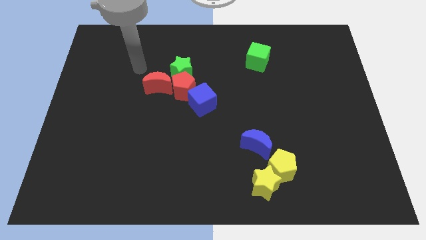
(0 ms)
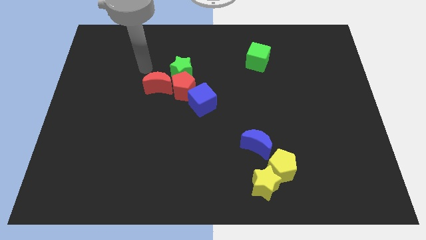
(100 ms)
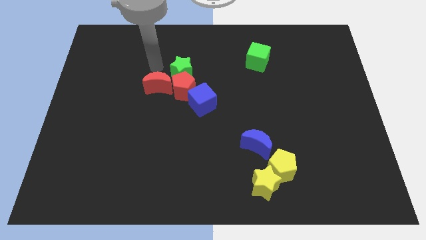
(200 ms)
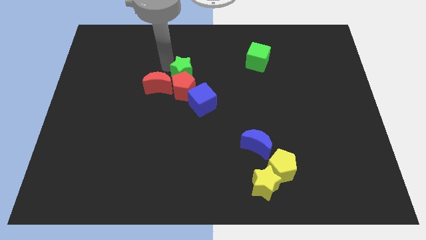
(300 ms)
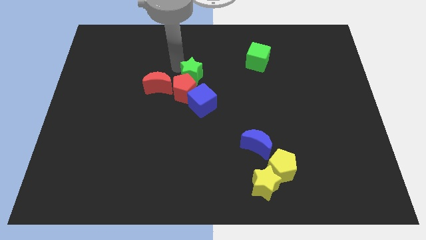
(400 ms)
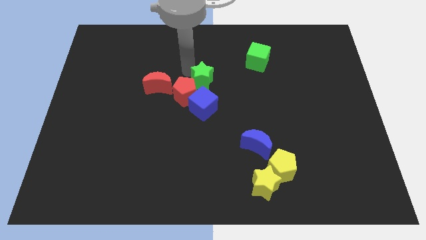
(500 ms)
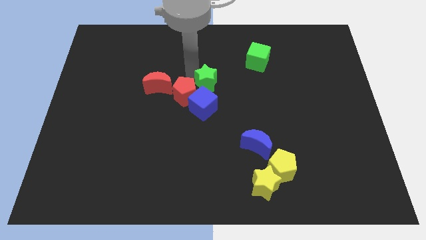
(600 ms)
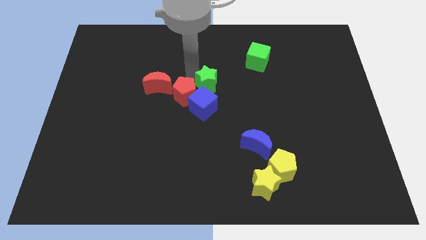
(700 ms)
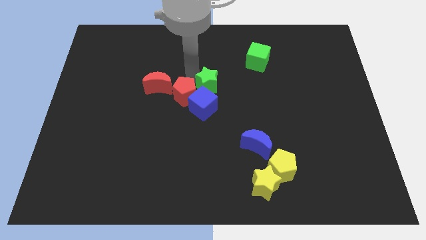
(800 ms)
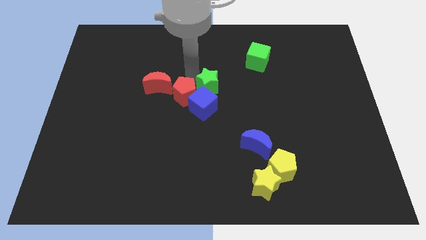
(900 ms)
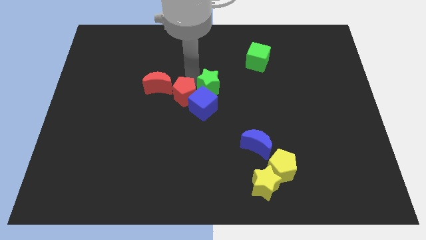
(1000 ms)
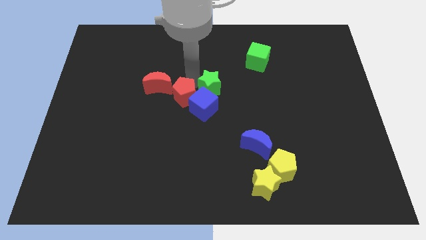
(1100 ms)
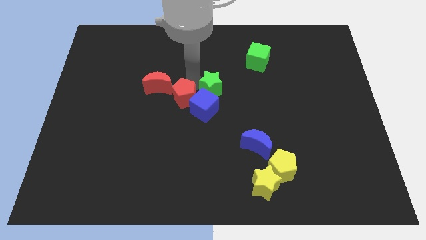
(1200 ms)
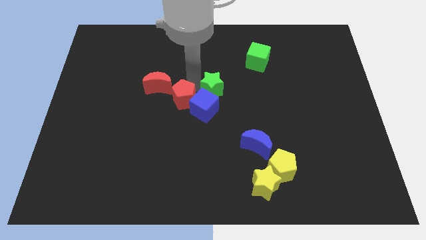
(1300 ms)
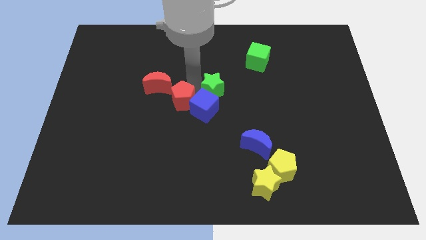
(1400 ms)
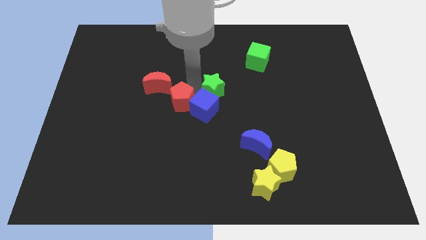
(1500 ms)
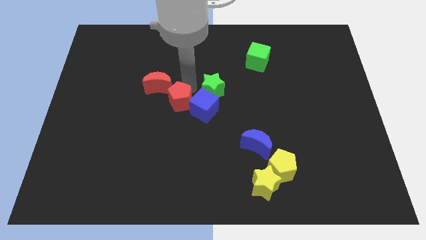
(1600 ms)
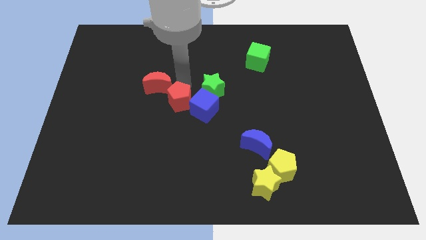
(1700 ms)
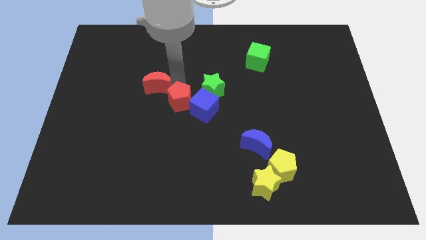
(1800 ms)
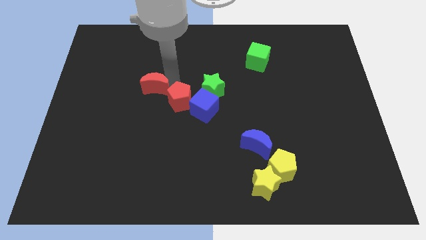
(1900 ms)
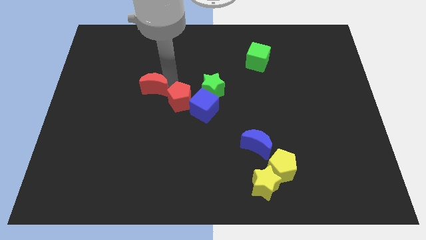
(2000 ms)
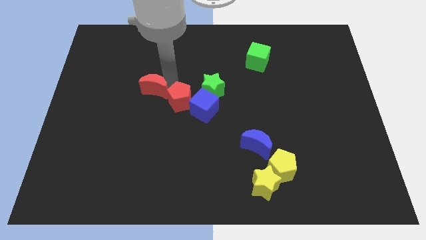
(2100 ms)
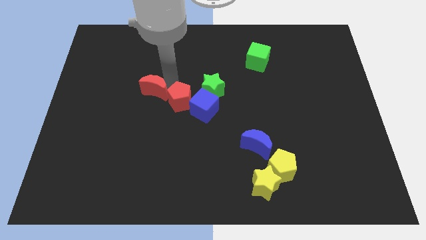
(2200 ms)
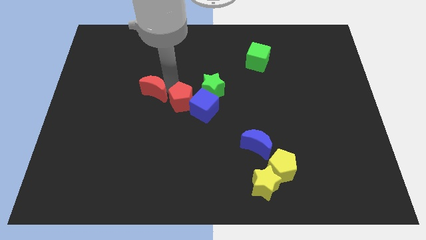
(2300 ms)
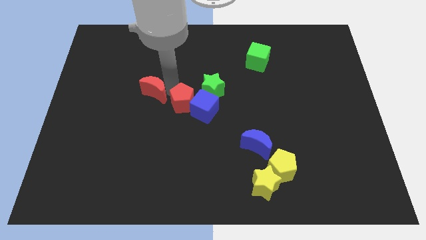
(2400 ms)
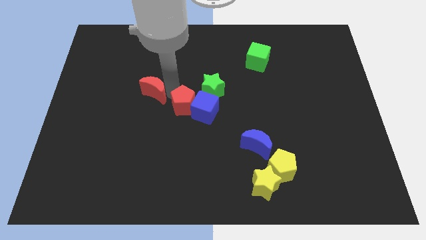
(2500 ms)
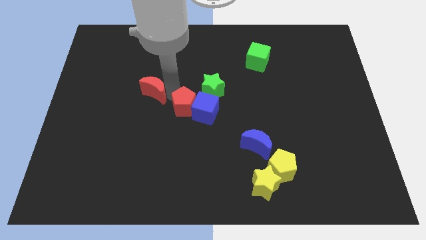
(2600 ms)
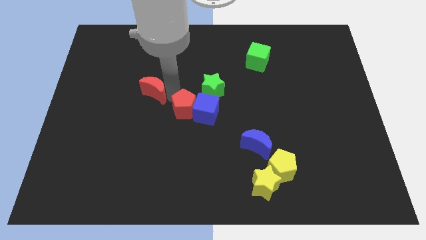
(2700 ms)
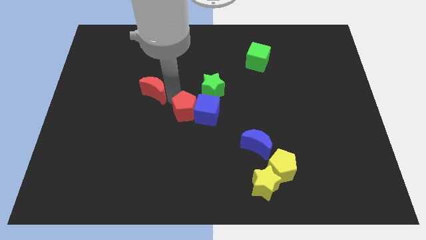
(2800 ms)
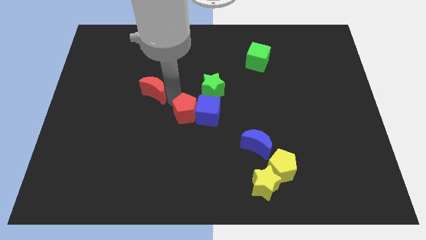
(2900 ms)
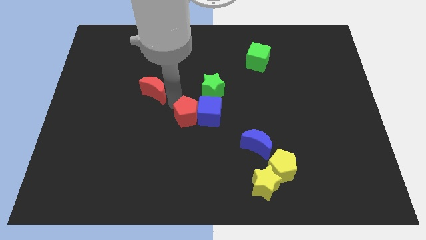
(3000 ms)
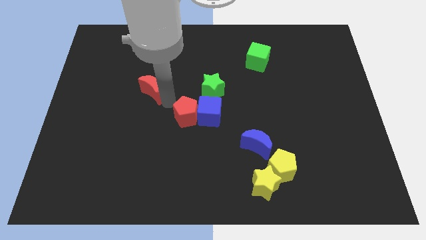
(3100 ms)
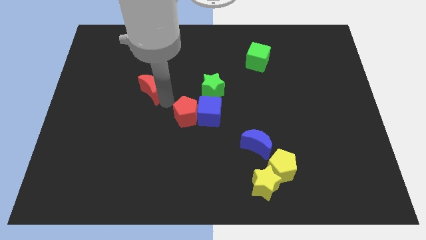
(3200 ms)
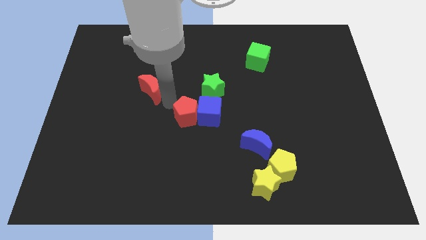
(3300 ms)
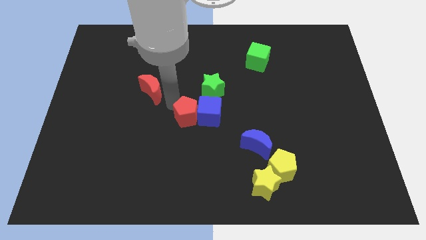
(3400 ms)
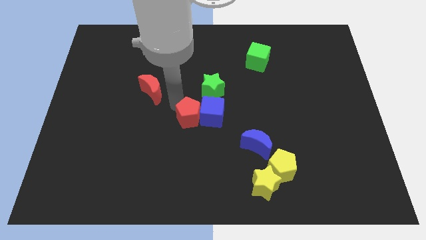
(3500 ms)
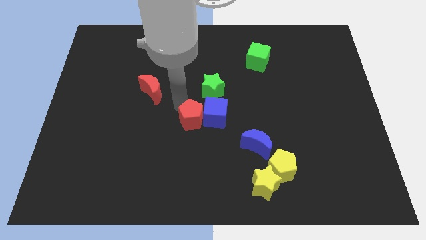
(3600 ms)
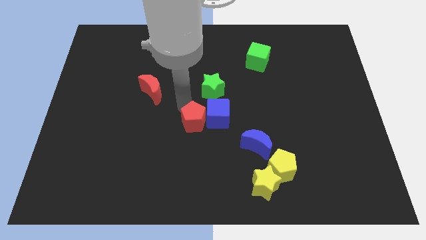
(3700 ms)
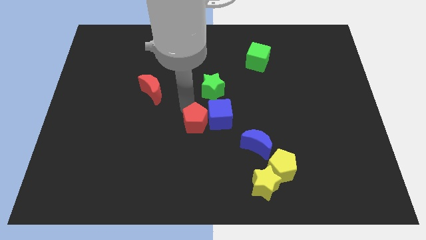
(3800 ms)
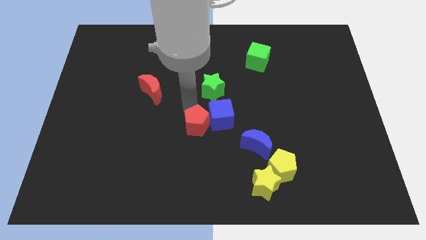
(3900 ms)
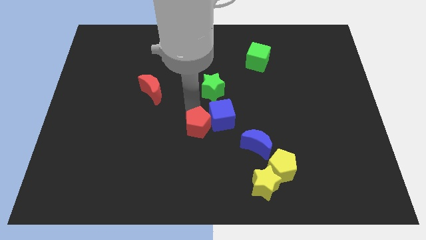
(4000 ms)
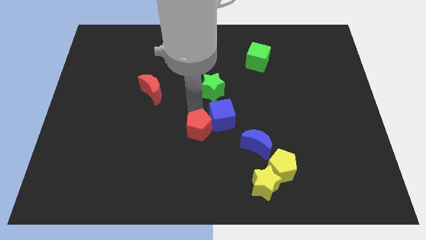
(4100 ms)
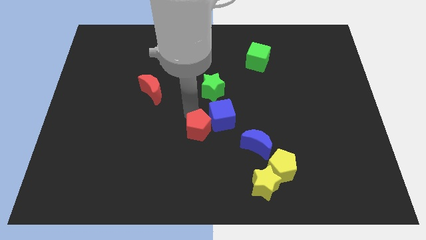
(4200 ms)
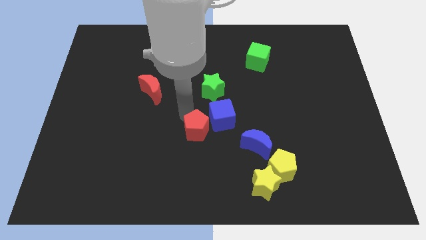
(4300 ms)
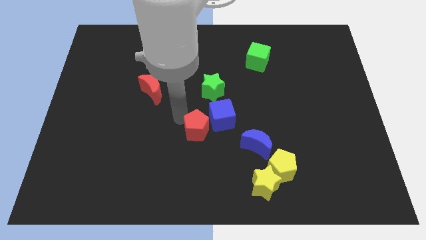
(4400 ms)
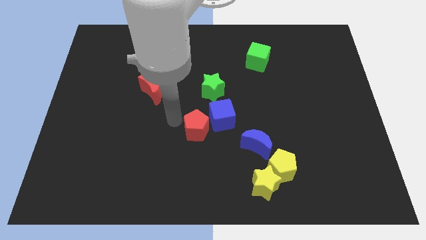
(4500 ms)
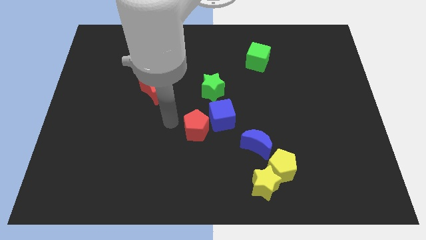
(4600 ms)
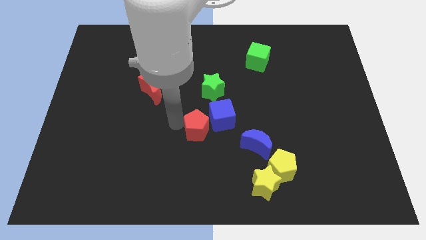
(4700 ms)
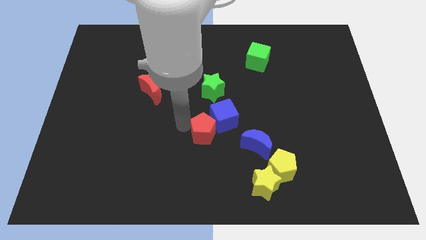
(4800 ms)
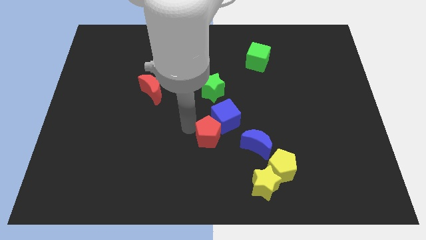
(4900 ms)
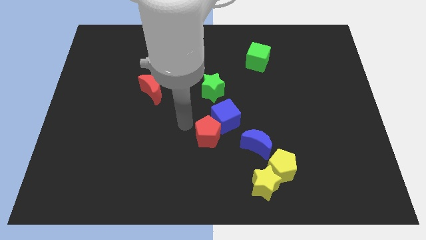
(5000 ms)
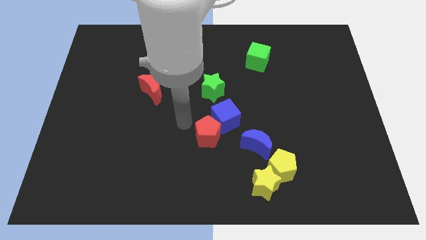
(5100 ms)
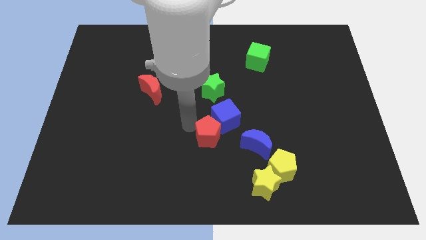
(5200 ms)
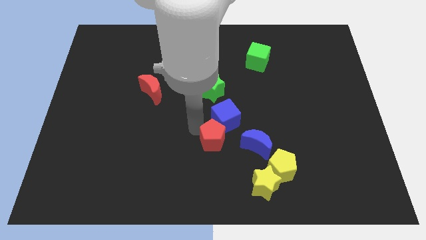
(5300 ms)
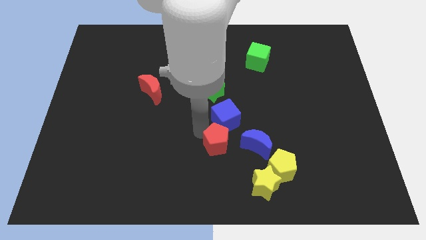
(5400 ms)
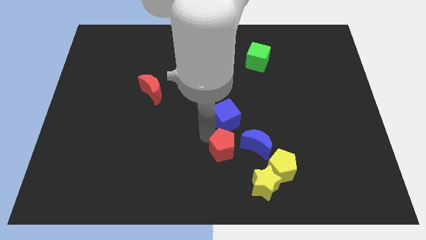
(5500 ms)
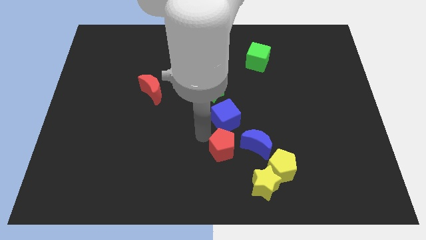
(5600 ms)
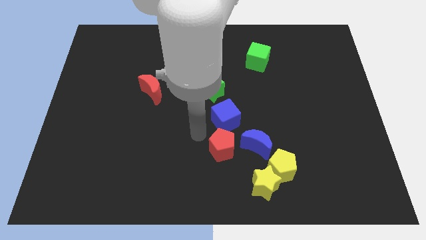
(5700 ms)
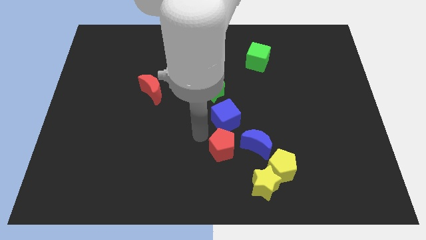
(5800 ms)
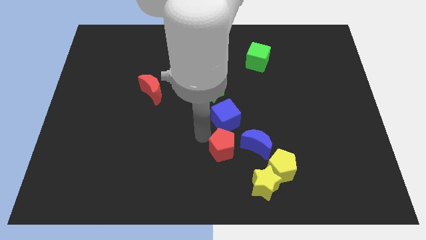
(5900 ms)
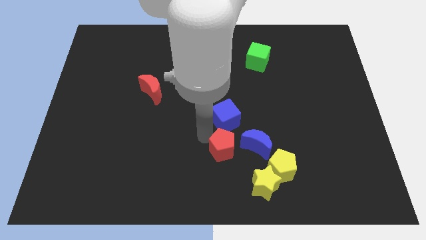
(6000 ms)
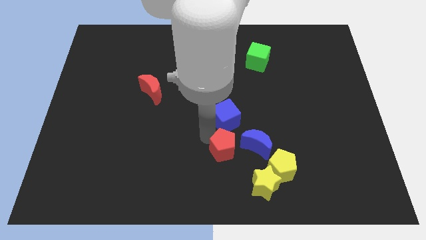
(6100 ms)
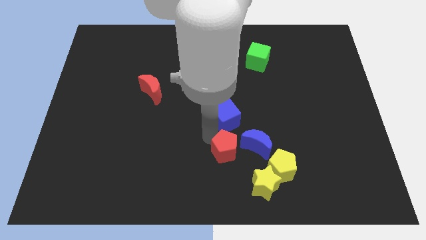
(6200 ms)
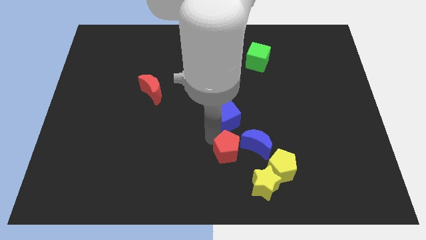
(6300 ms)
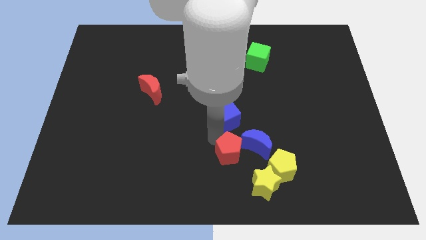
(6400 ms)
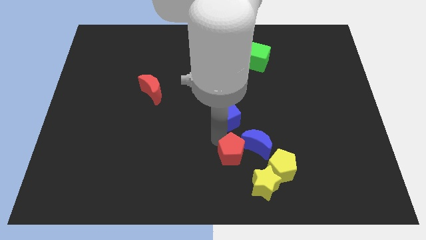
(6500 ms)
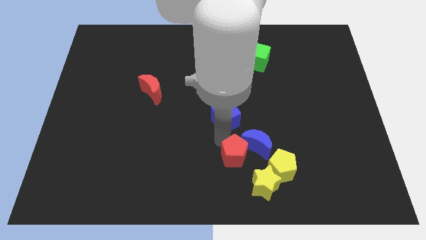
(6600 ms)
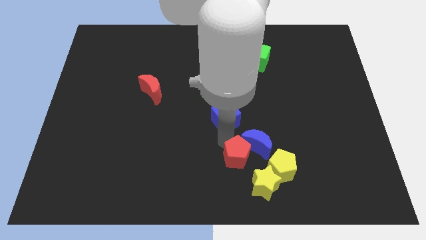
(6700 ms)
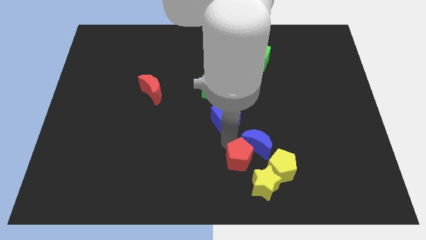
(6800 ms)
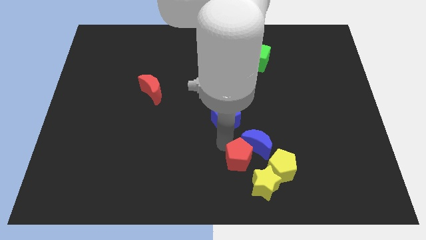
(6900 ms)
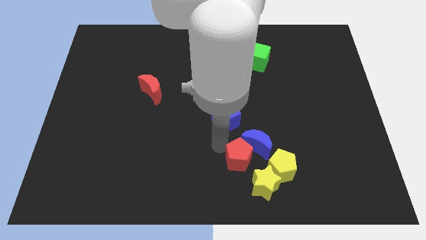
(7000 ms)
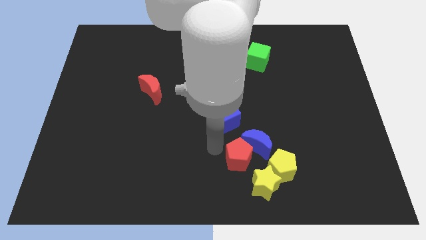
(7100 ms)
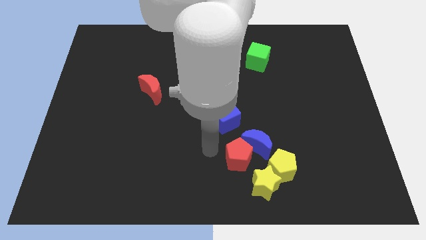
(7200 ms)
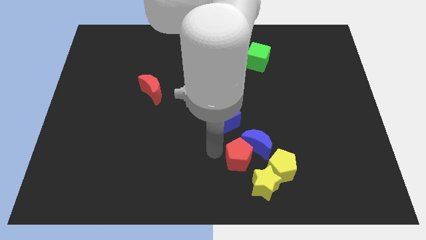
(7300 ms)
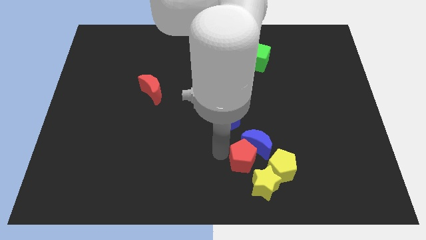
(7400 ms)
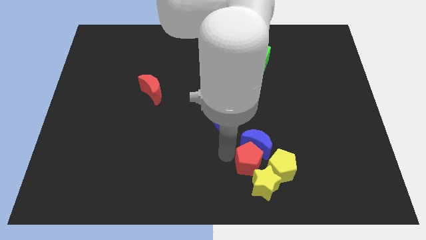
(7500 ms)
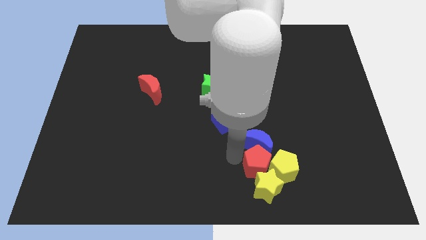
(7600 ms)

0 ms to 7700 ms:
push the red pentagon towards the yellow pentagon
